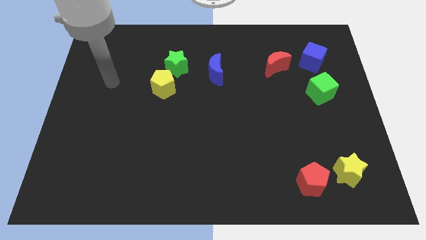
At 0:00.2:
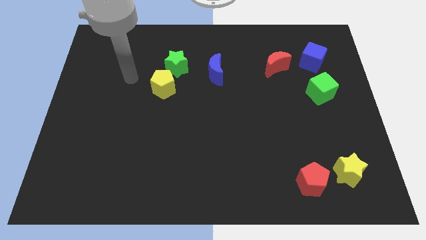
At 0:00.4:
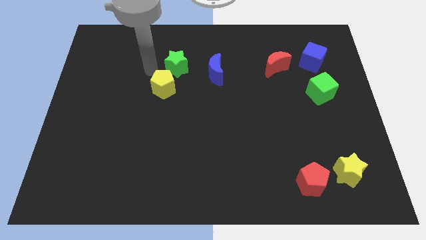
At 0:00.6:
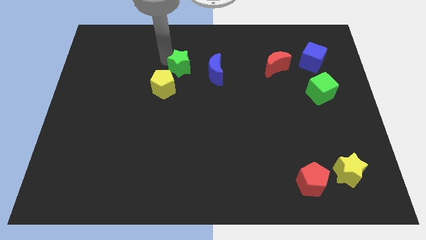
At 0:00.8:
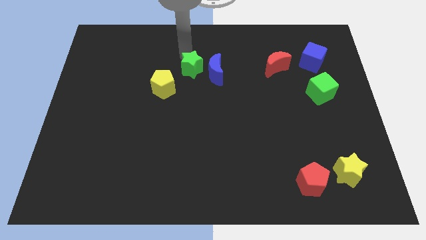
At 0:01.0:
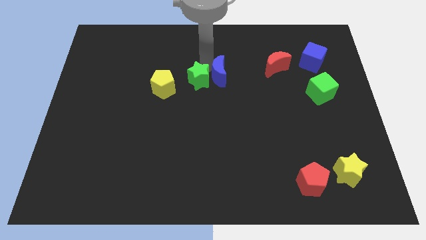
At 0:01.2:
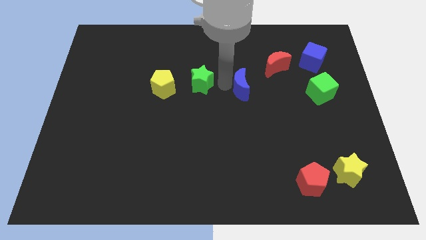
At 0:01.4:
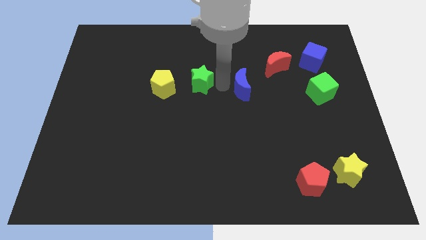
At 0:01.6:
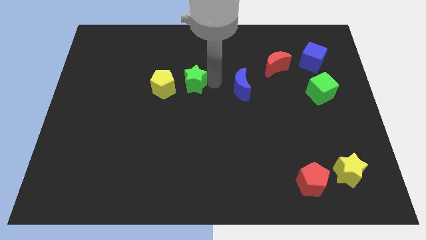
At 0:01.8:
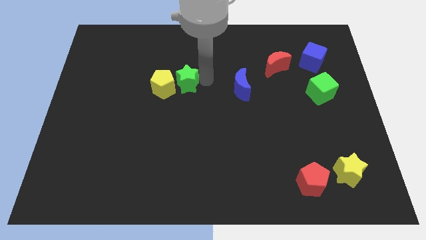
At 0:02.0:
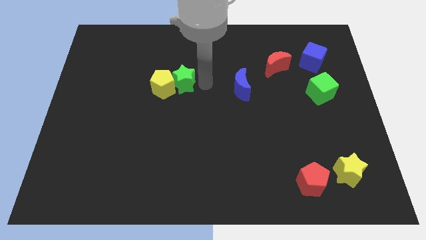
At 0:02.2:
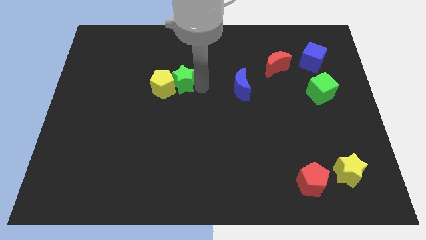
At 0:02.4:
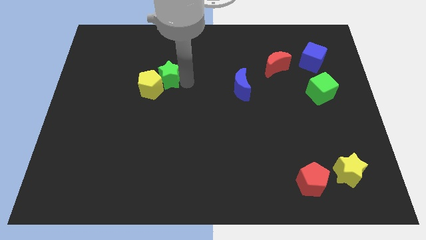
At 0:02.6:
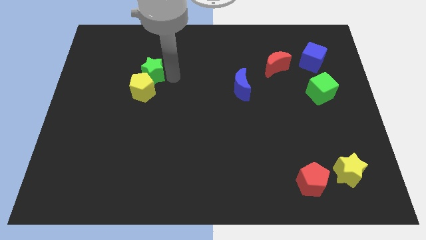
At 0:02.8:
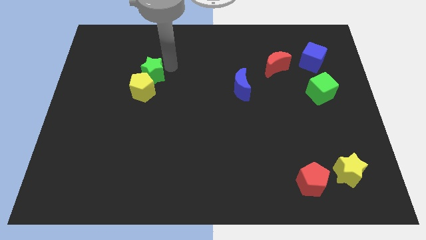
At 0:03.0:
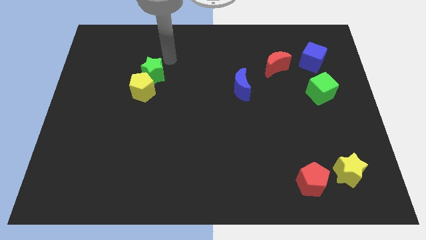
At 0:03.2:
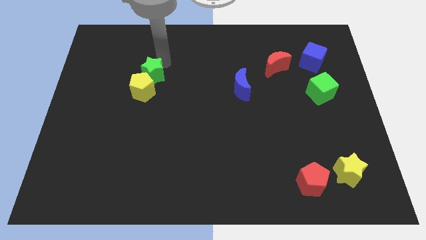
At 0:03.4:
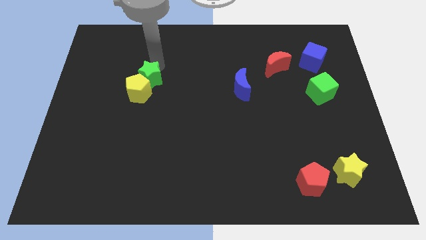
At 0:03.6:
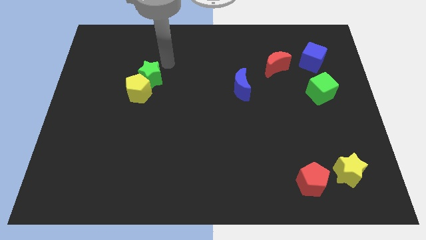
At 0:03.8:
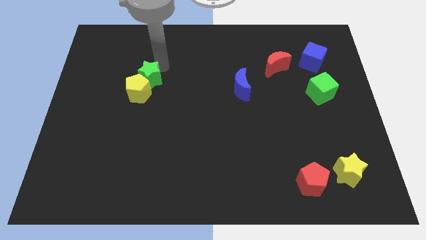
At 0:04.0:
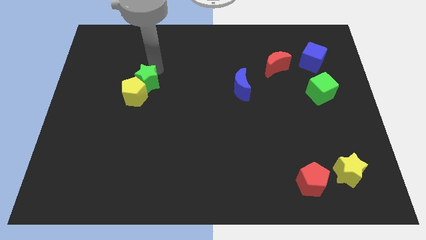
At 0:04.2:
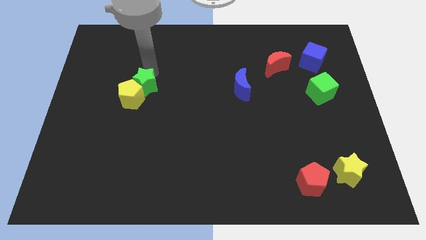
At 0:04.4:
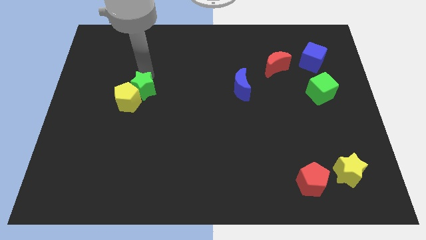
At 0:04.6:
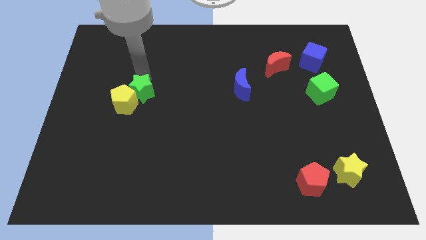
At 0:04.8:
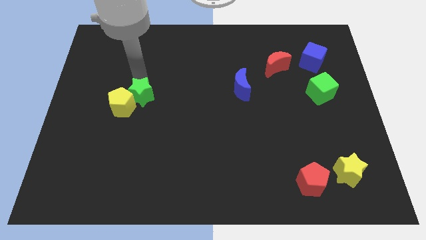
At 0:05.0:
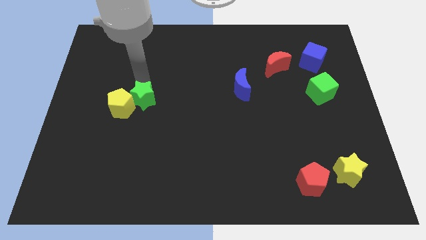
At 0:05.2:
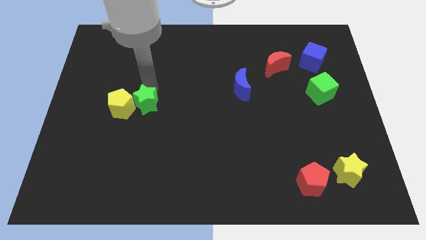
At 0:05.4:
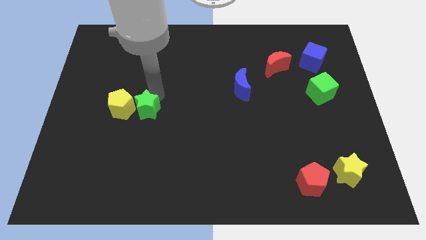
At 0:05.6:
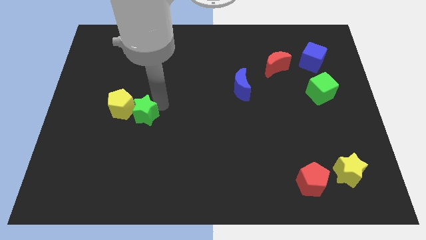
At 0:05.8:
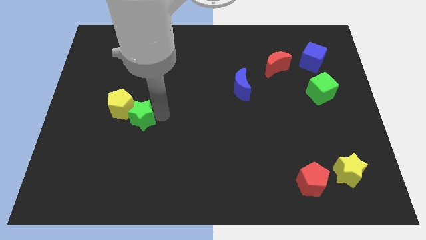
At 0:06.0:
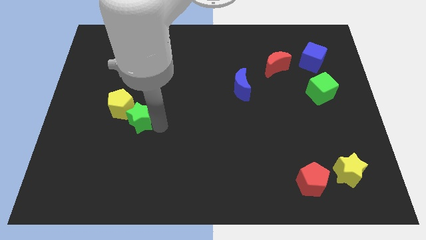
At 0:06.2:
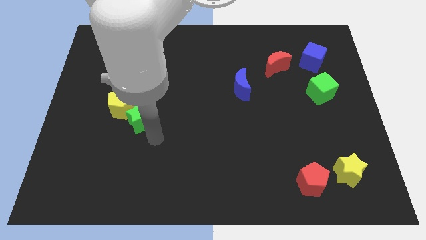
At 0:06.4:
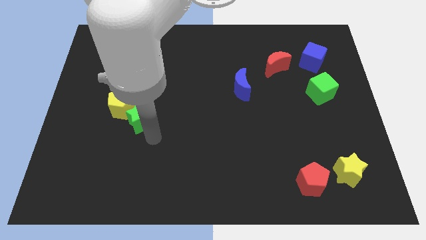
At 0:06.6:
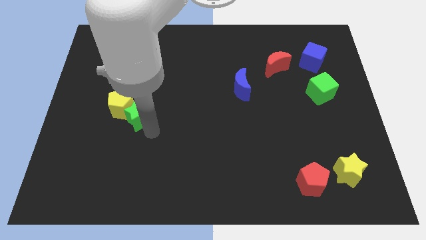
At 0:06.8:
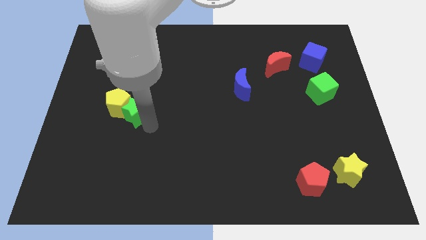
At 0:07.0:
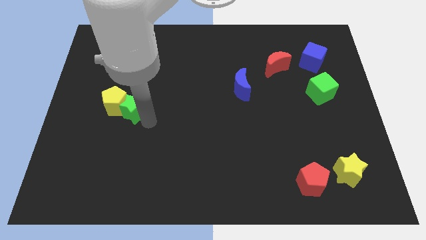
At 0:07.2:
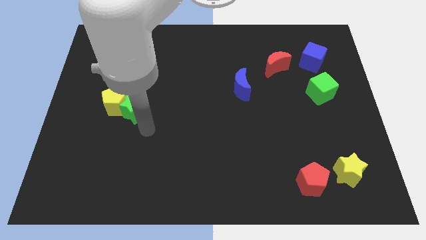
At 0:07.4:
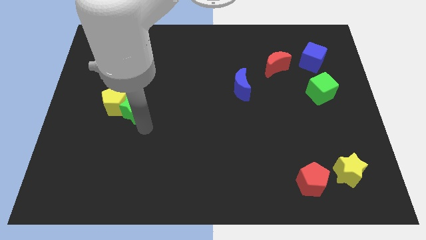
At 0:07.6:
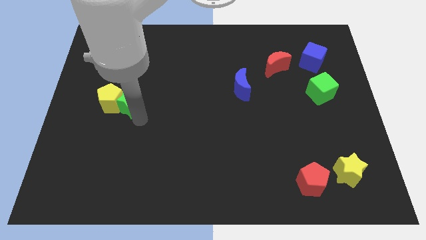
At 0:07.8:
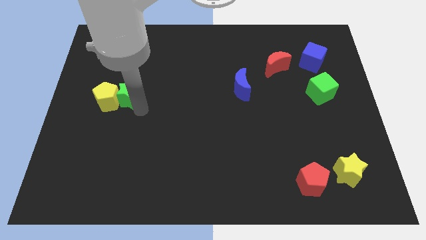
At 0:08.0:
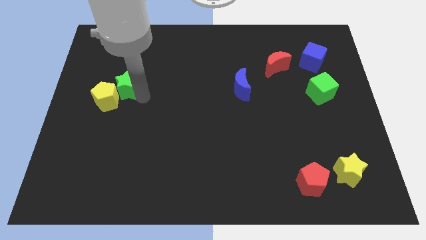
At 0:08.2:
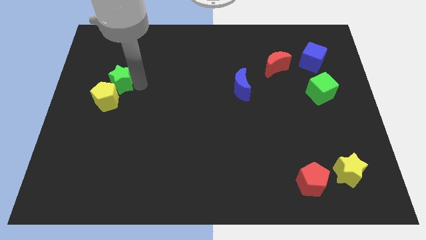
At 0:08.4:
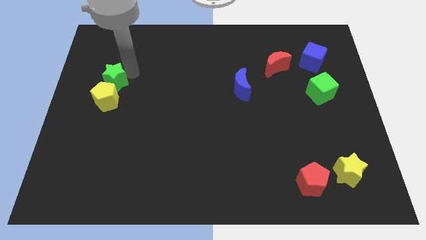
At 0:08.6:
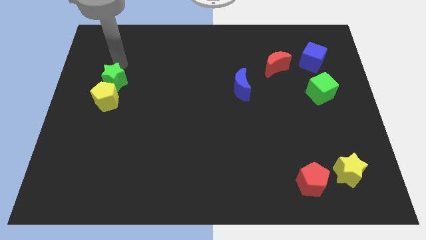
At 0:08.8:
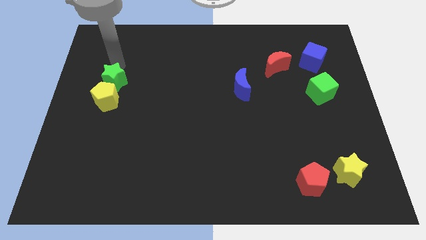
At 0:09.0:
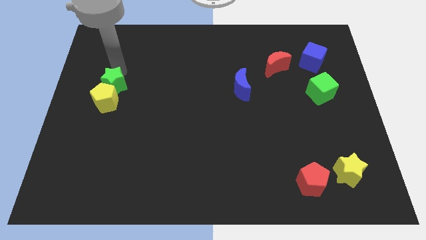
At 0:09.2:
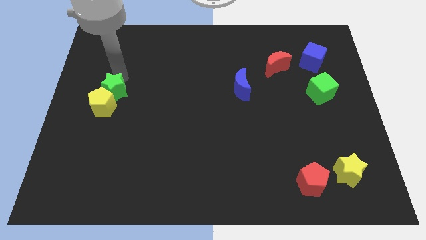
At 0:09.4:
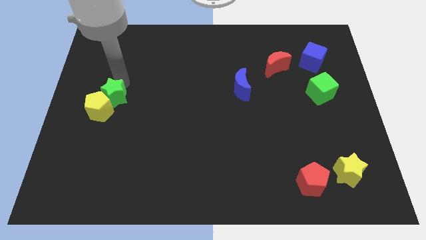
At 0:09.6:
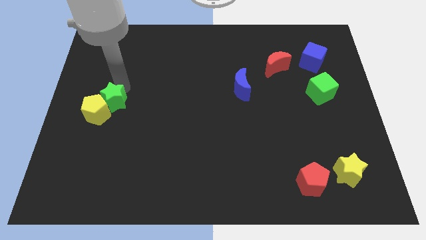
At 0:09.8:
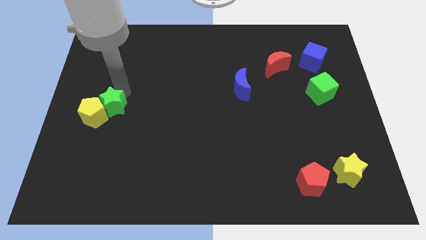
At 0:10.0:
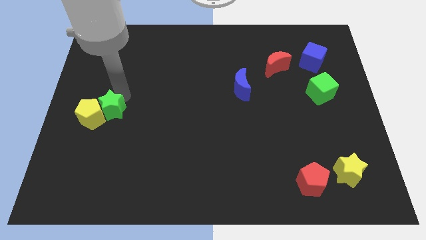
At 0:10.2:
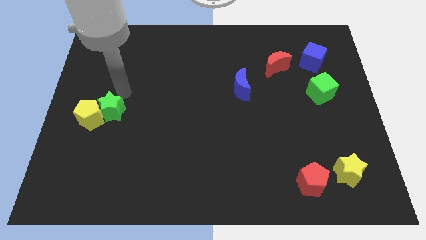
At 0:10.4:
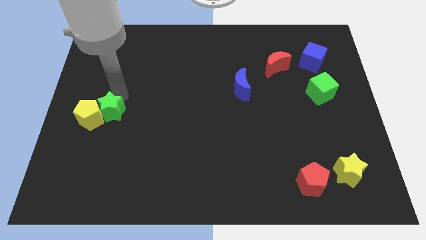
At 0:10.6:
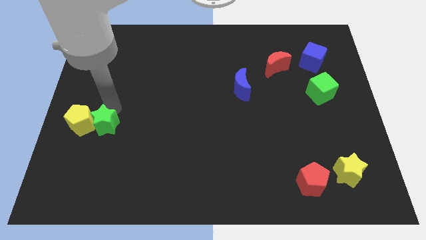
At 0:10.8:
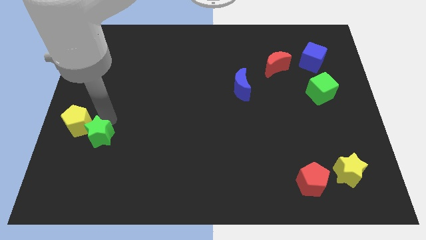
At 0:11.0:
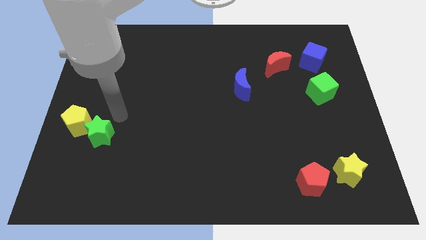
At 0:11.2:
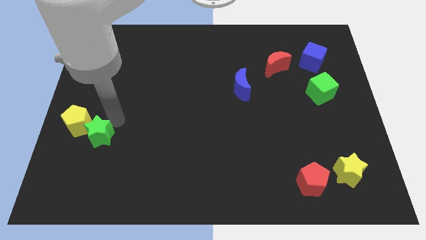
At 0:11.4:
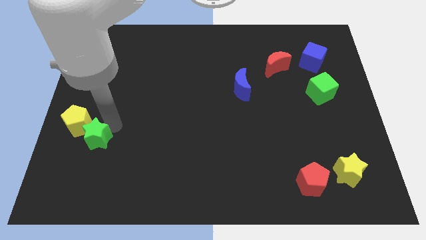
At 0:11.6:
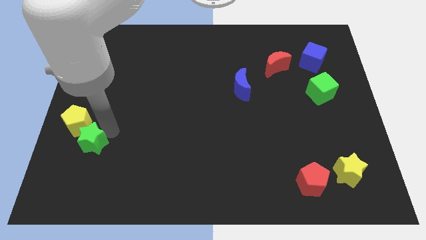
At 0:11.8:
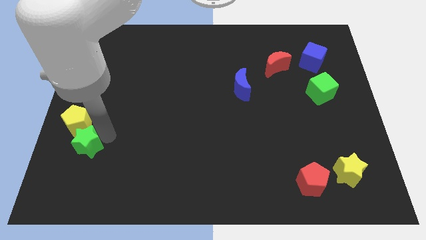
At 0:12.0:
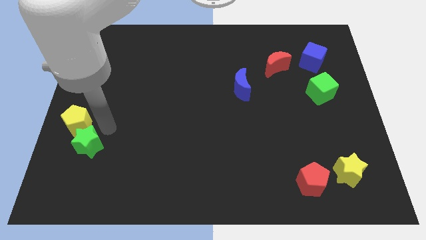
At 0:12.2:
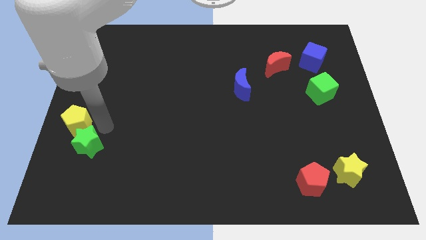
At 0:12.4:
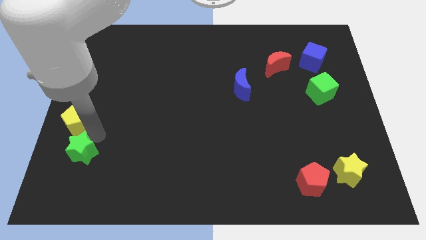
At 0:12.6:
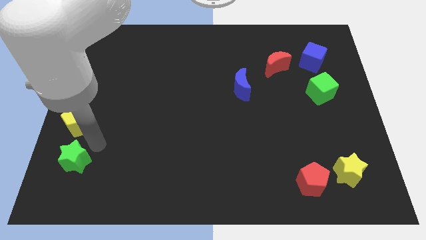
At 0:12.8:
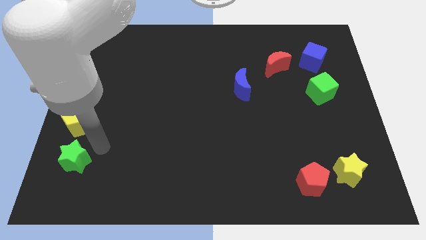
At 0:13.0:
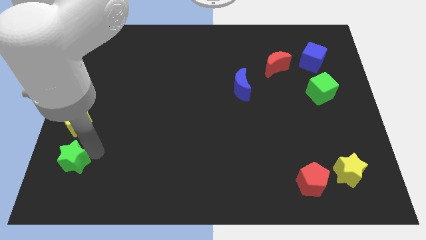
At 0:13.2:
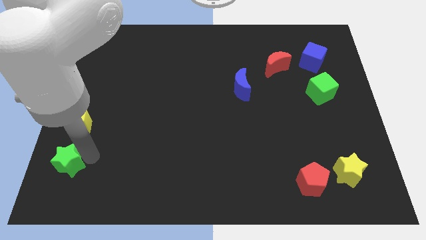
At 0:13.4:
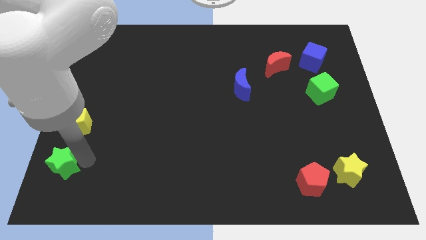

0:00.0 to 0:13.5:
put the green star to the bottom left corner
